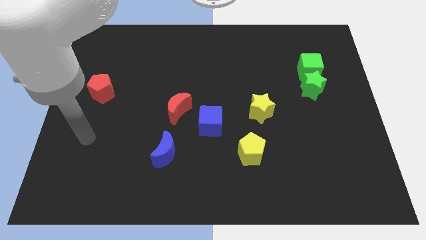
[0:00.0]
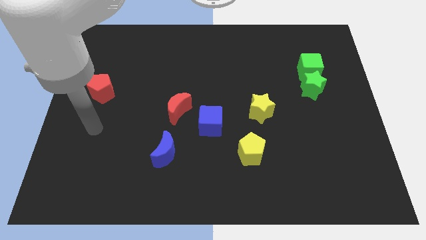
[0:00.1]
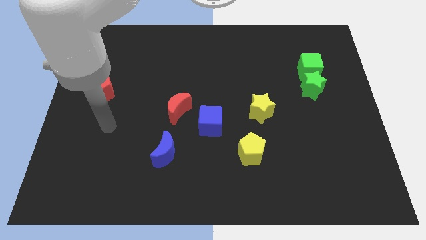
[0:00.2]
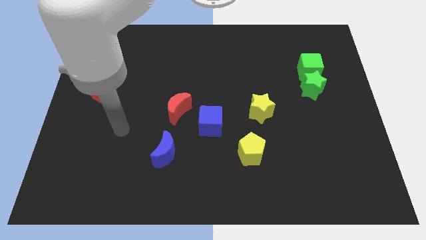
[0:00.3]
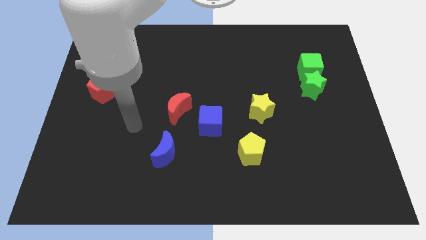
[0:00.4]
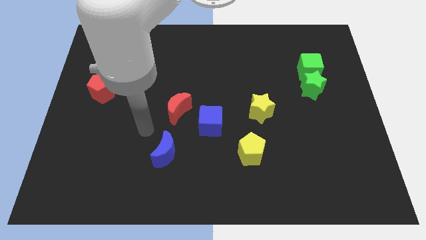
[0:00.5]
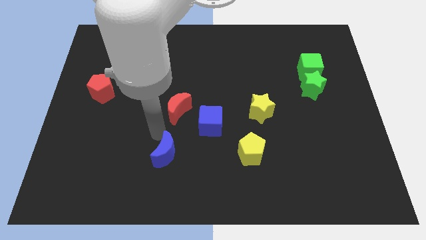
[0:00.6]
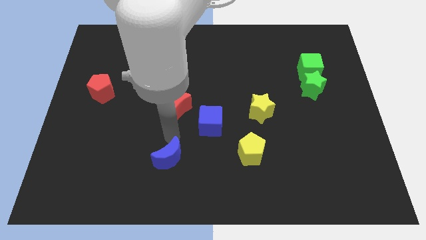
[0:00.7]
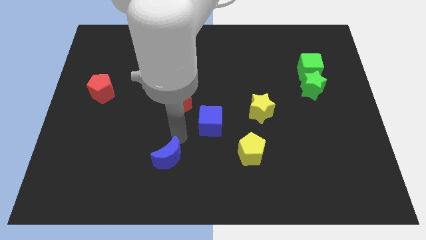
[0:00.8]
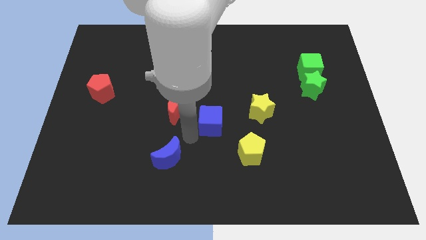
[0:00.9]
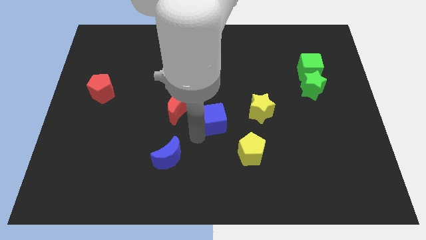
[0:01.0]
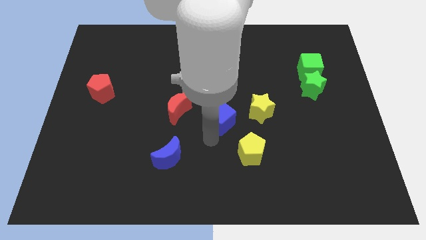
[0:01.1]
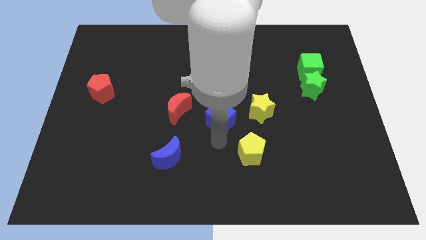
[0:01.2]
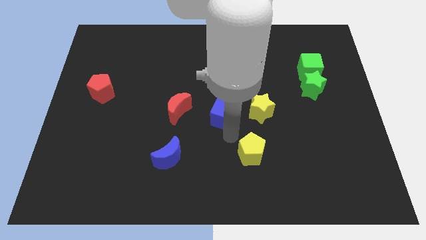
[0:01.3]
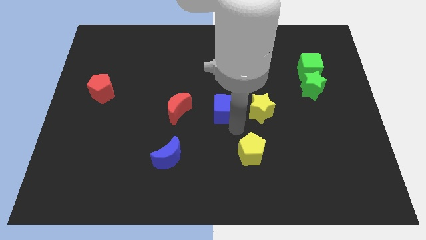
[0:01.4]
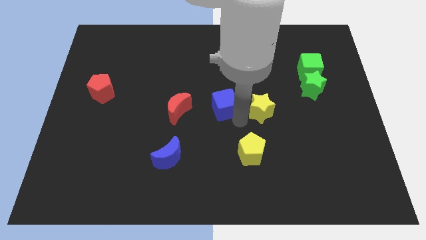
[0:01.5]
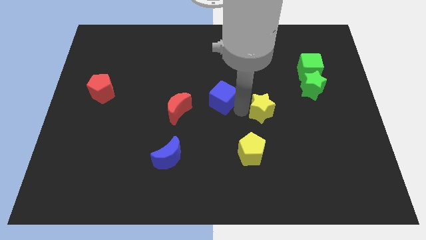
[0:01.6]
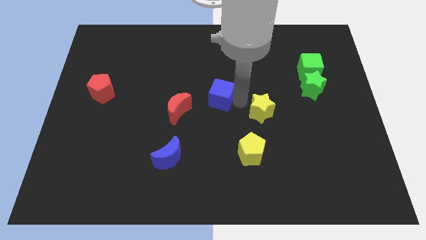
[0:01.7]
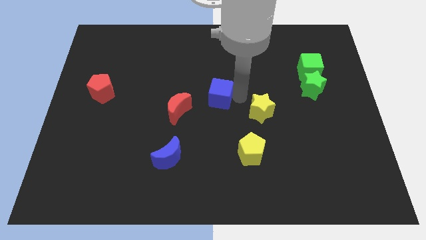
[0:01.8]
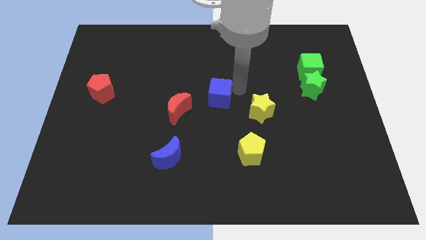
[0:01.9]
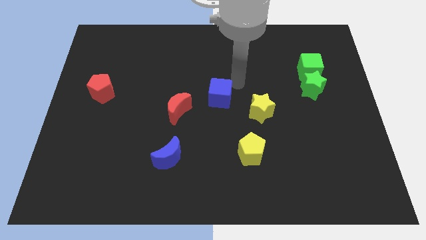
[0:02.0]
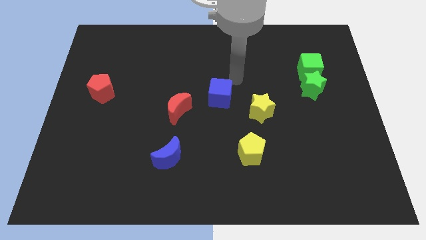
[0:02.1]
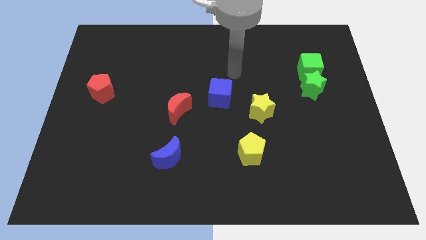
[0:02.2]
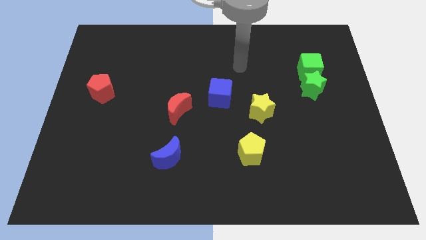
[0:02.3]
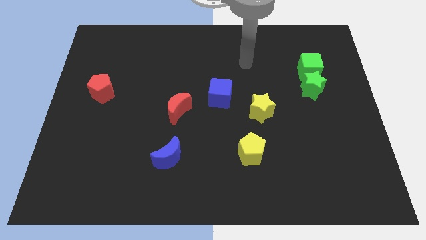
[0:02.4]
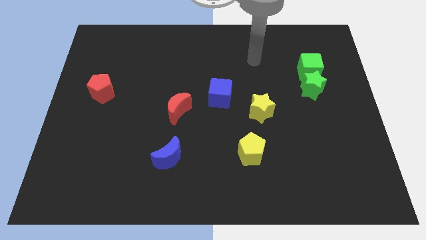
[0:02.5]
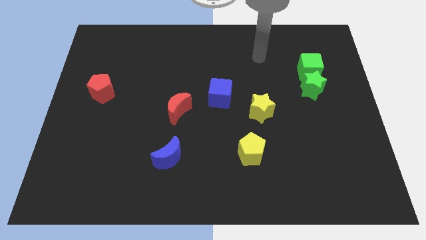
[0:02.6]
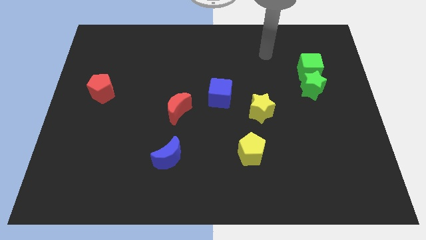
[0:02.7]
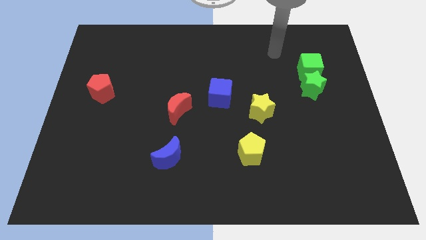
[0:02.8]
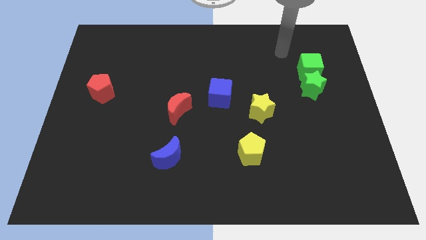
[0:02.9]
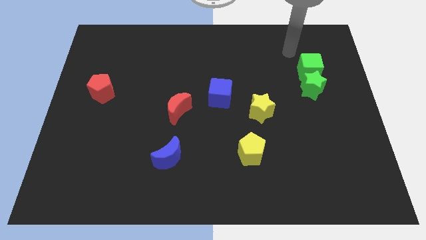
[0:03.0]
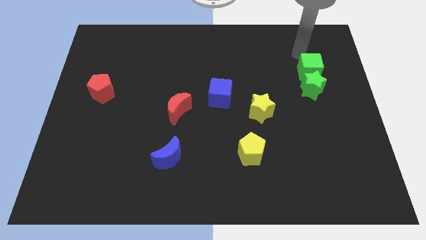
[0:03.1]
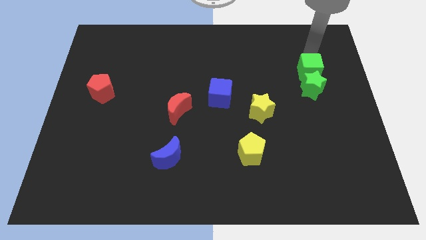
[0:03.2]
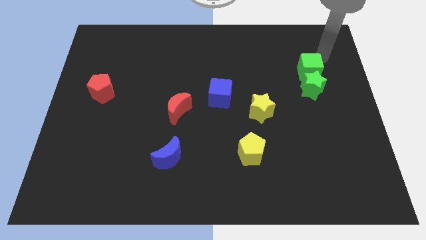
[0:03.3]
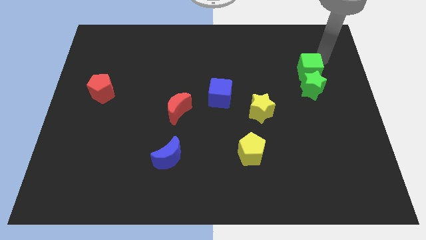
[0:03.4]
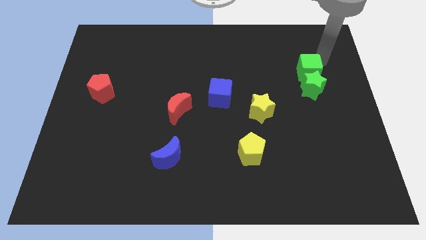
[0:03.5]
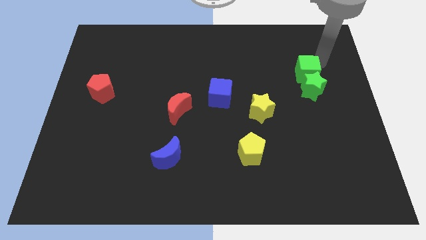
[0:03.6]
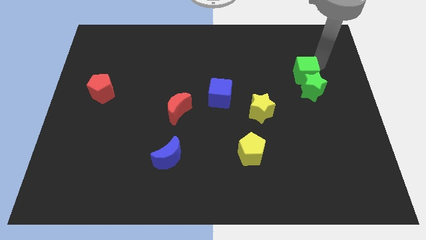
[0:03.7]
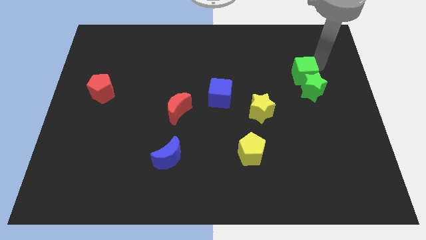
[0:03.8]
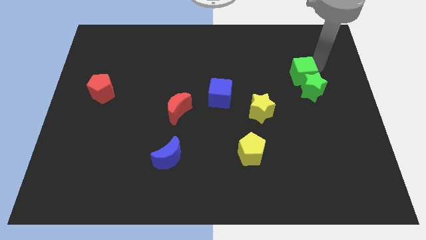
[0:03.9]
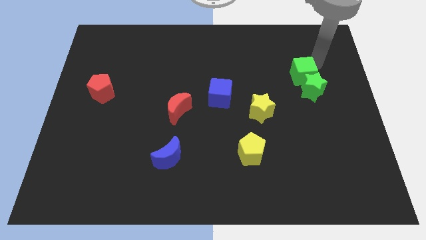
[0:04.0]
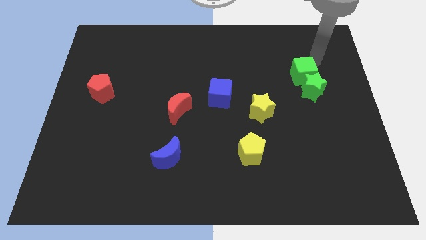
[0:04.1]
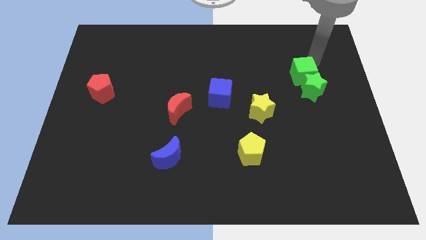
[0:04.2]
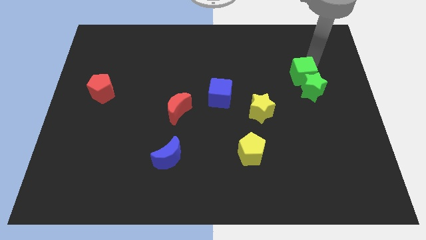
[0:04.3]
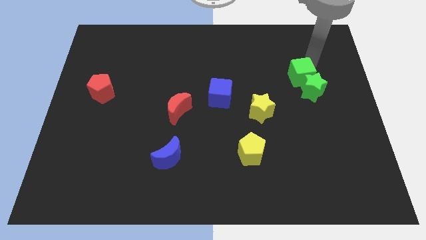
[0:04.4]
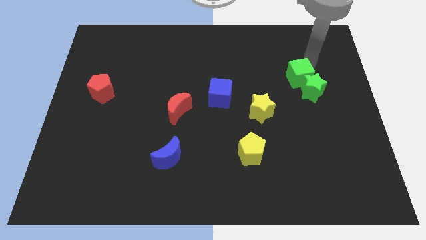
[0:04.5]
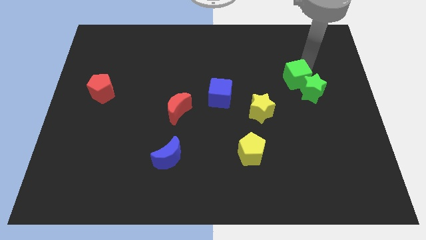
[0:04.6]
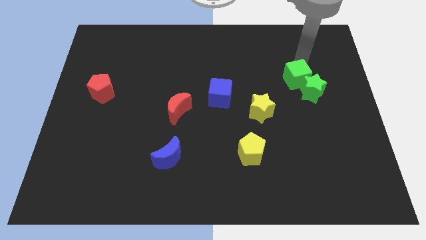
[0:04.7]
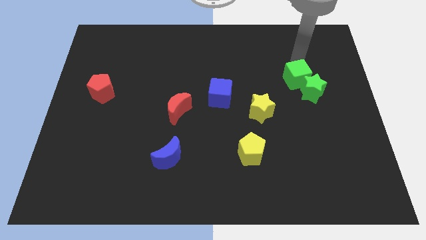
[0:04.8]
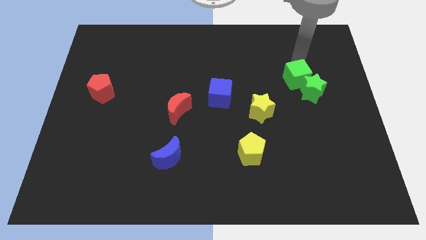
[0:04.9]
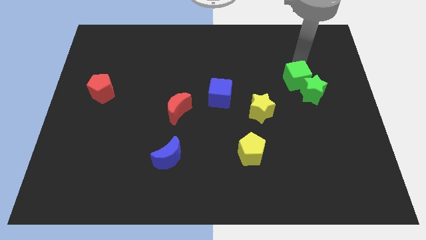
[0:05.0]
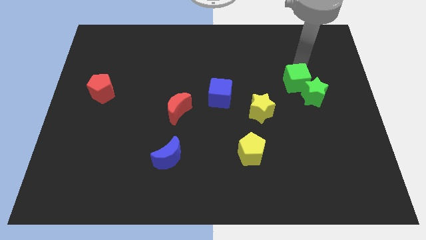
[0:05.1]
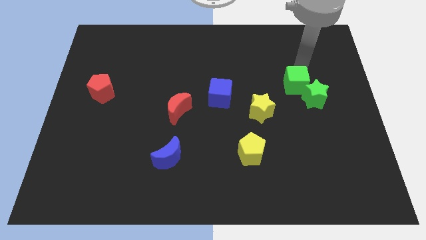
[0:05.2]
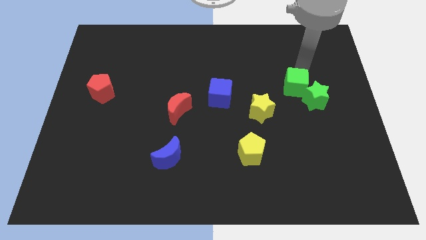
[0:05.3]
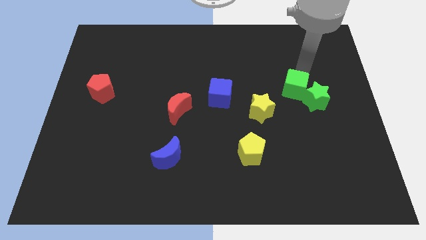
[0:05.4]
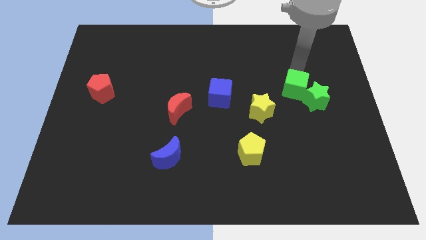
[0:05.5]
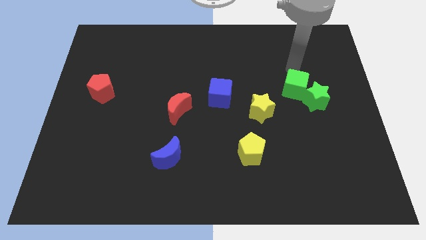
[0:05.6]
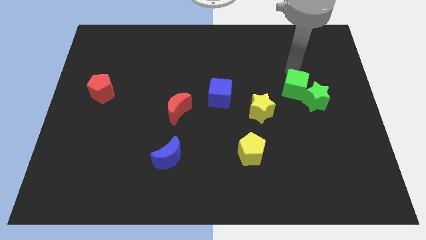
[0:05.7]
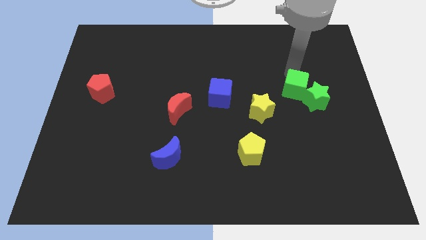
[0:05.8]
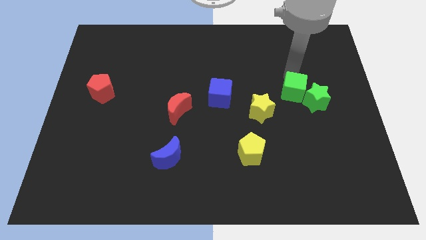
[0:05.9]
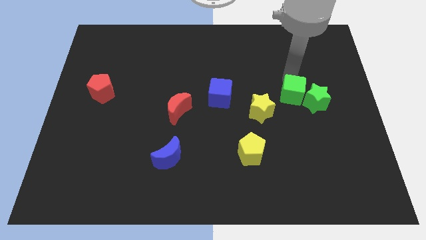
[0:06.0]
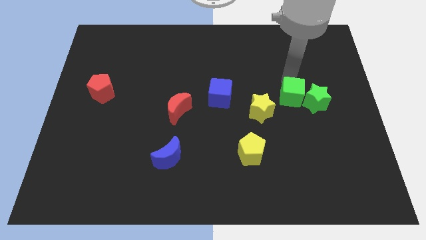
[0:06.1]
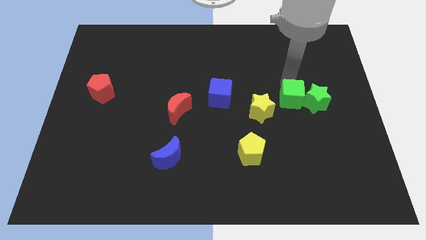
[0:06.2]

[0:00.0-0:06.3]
slide the green cube to the bottom left of the green star

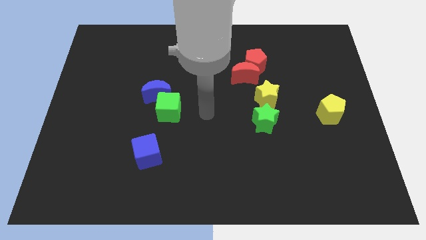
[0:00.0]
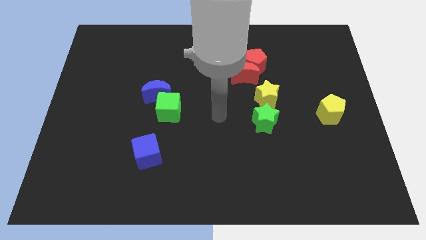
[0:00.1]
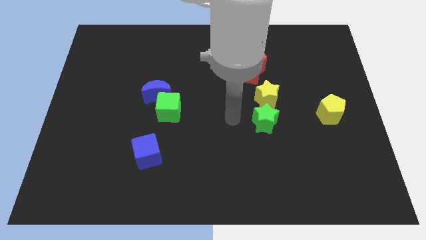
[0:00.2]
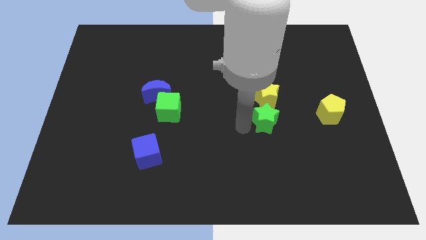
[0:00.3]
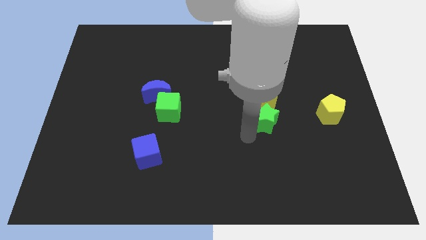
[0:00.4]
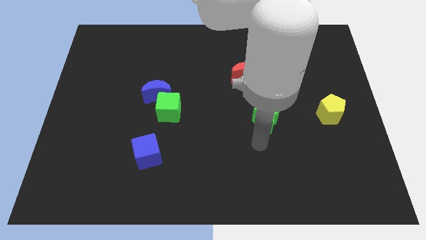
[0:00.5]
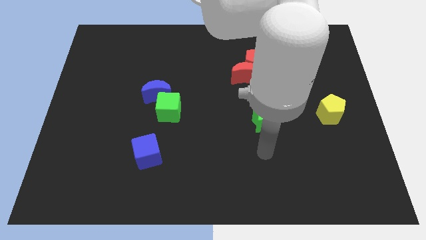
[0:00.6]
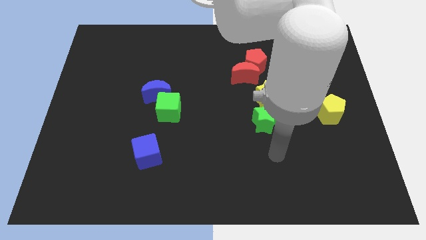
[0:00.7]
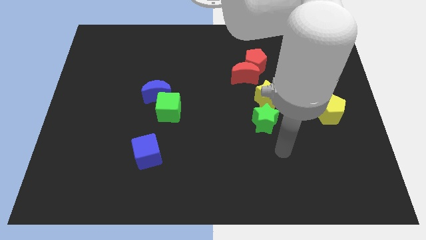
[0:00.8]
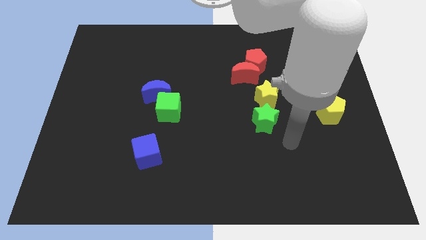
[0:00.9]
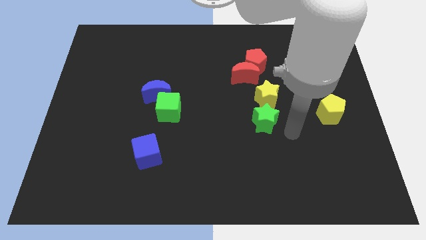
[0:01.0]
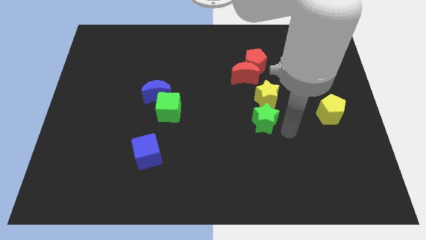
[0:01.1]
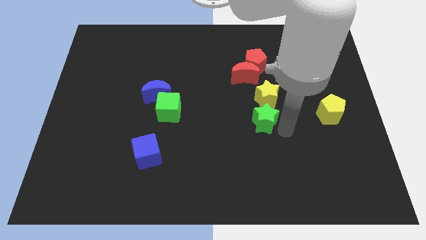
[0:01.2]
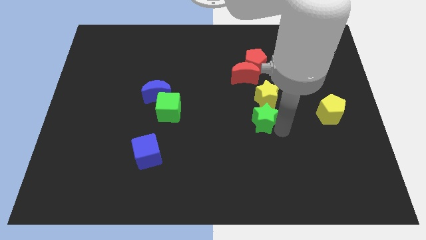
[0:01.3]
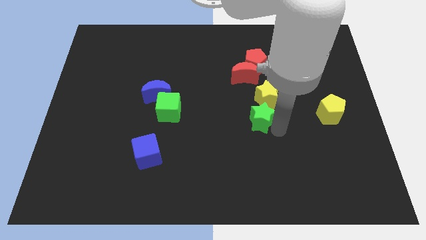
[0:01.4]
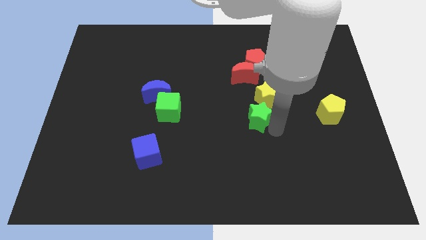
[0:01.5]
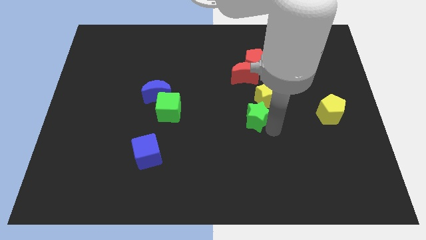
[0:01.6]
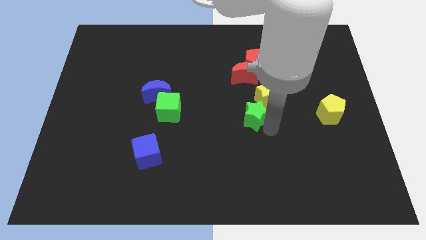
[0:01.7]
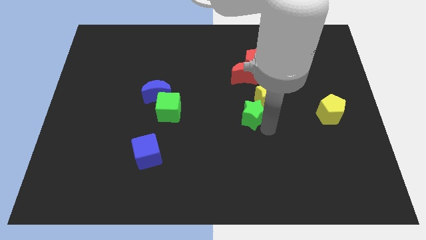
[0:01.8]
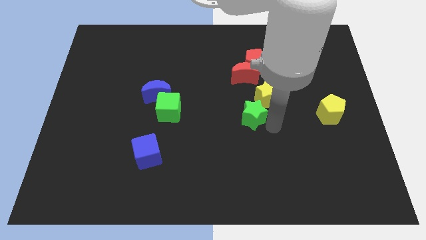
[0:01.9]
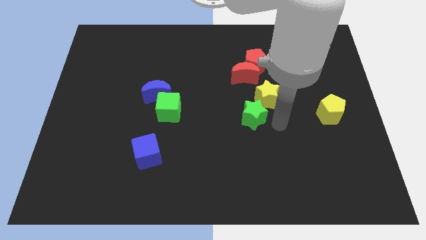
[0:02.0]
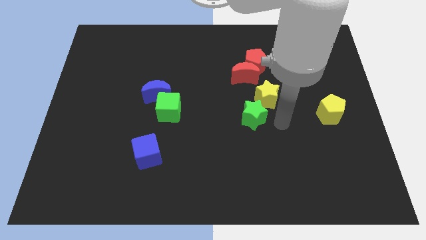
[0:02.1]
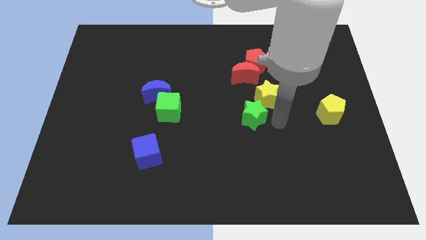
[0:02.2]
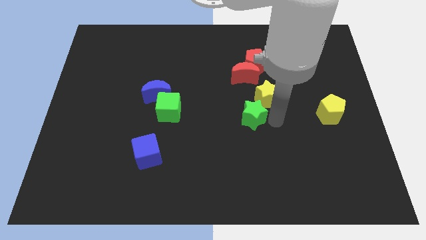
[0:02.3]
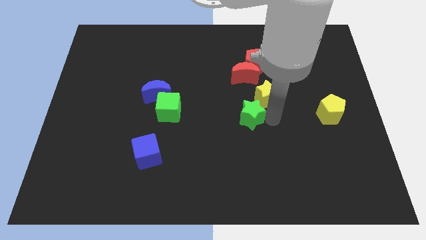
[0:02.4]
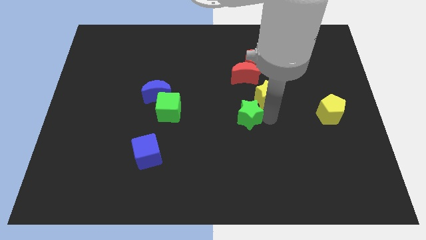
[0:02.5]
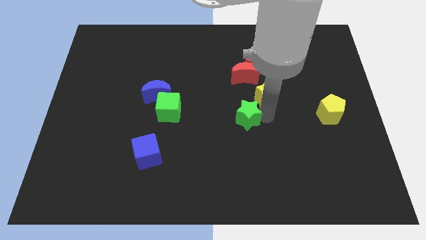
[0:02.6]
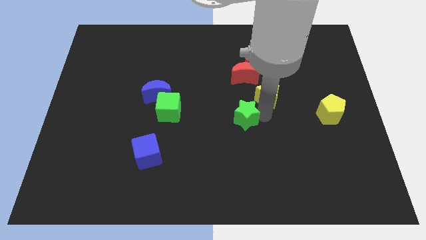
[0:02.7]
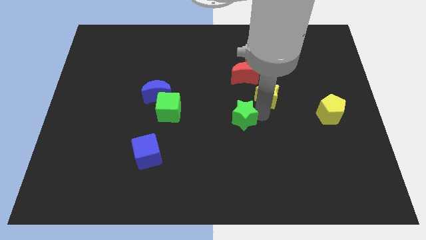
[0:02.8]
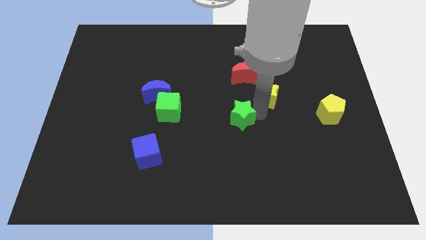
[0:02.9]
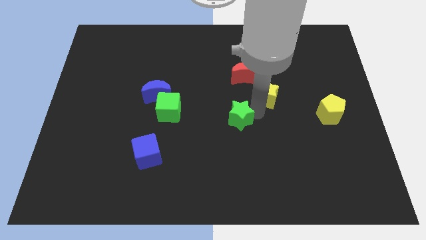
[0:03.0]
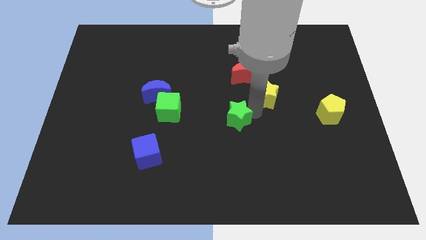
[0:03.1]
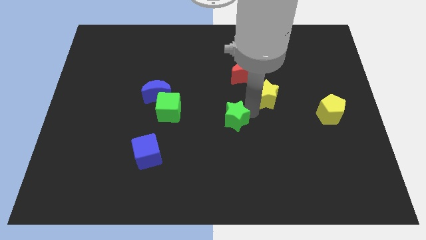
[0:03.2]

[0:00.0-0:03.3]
put the green star just right of the green cube
